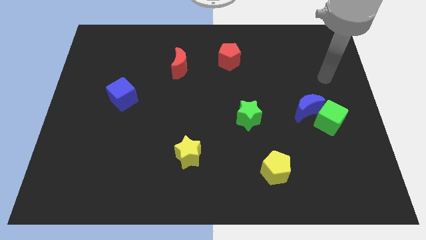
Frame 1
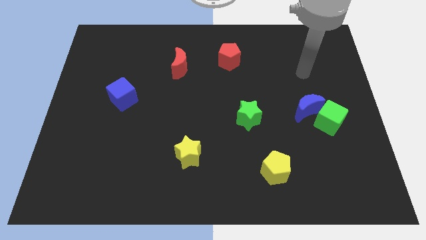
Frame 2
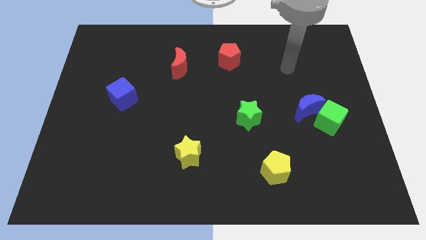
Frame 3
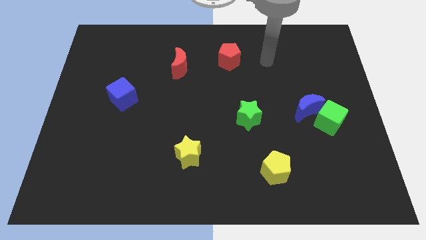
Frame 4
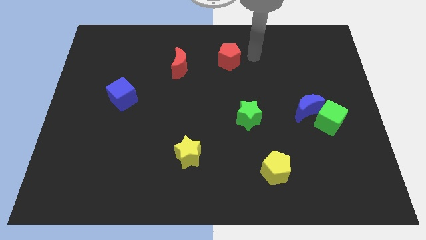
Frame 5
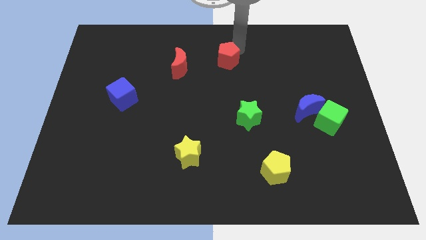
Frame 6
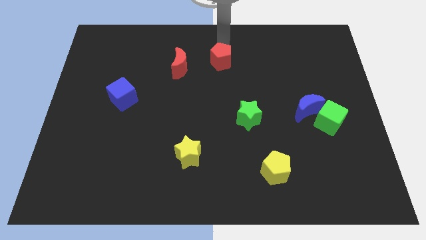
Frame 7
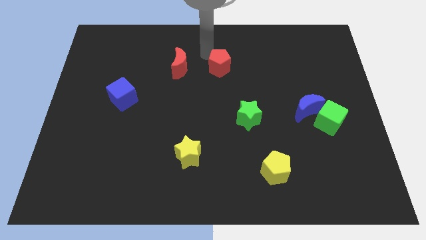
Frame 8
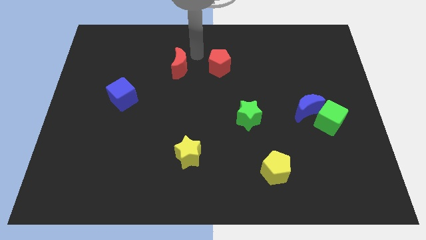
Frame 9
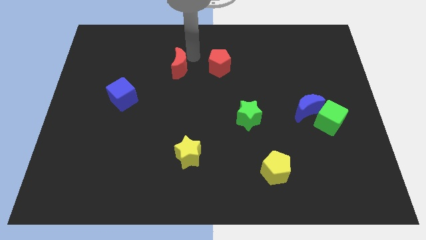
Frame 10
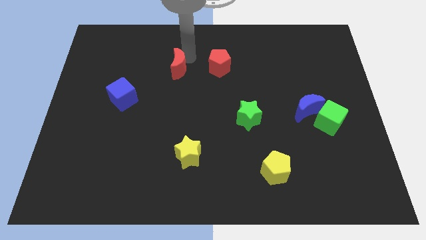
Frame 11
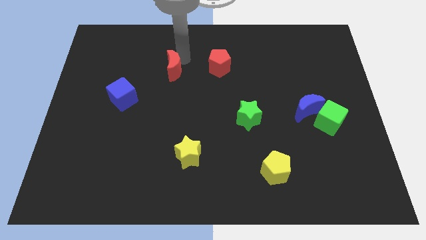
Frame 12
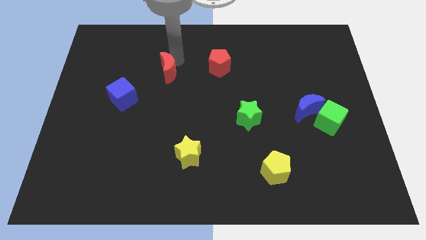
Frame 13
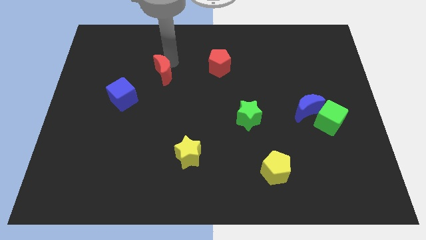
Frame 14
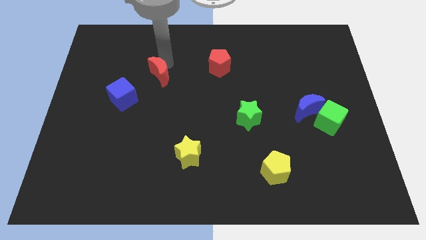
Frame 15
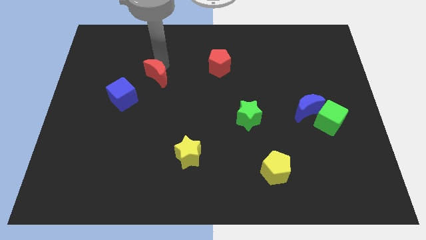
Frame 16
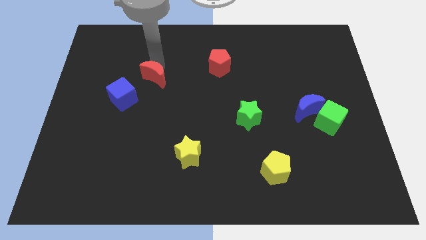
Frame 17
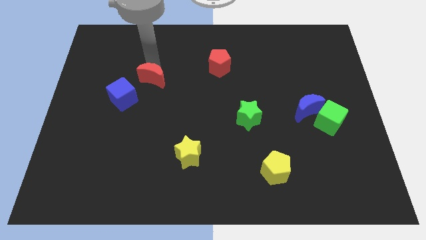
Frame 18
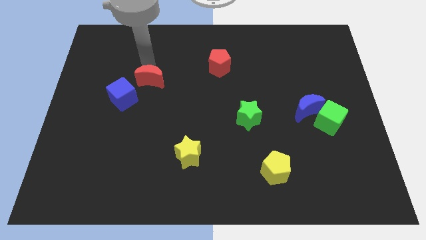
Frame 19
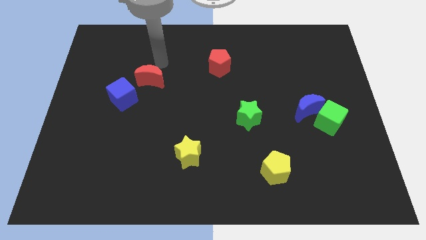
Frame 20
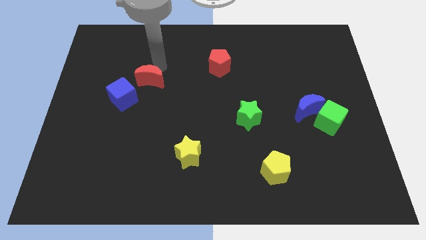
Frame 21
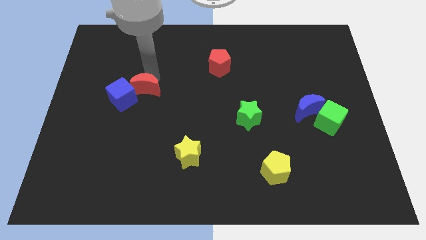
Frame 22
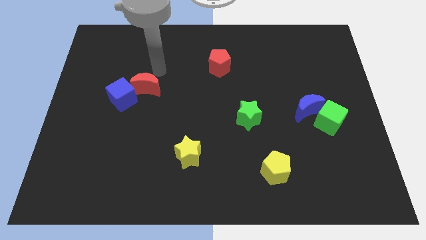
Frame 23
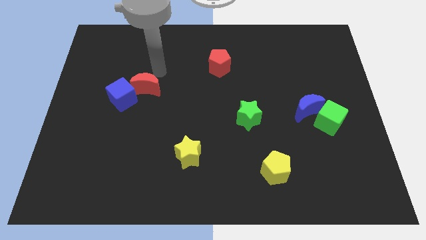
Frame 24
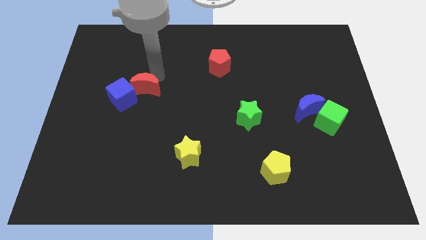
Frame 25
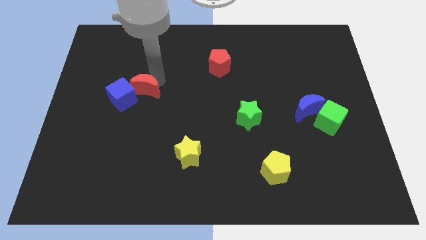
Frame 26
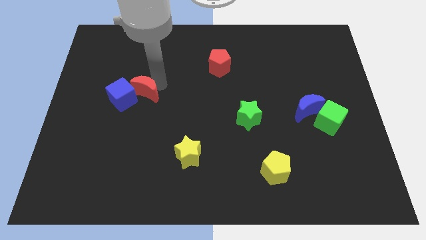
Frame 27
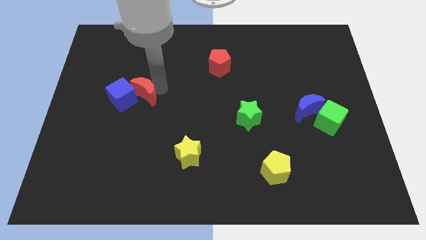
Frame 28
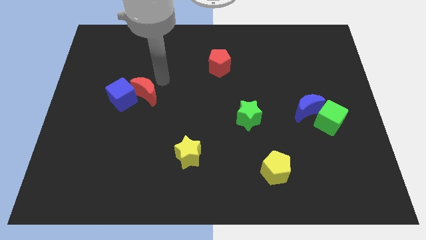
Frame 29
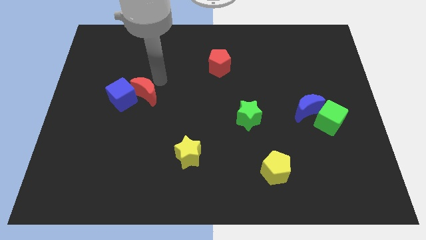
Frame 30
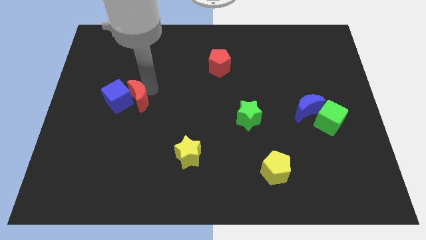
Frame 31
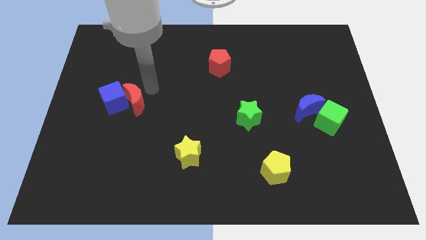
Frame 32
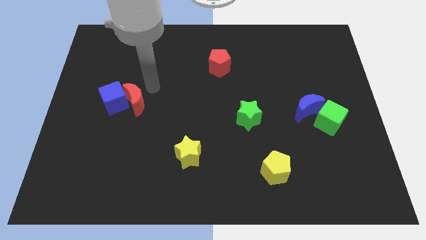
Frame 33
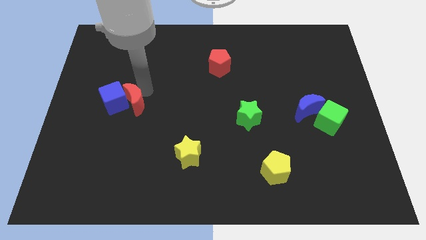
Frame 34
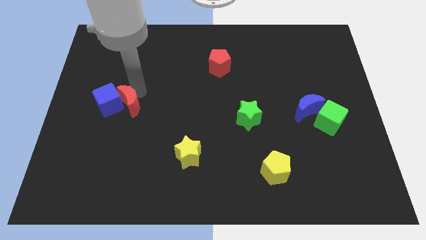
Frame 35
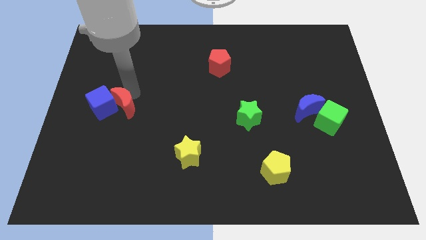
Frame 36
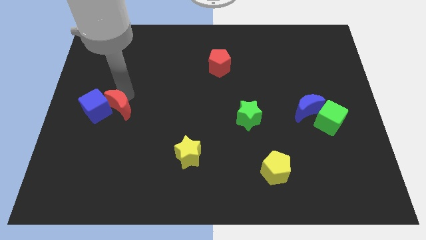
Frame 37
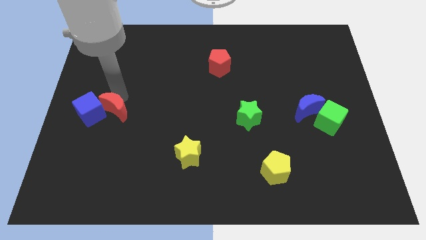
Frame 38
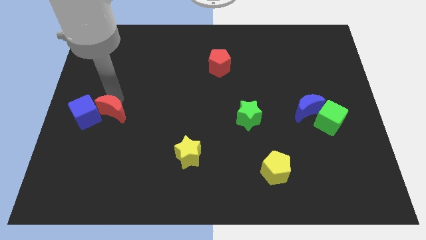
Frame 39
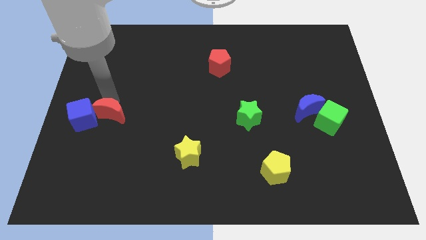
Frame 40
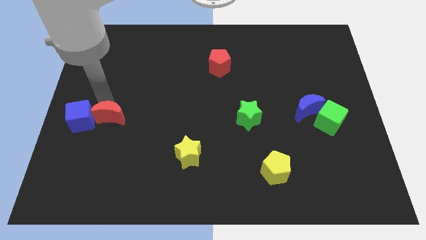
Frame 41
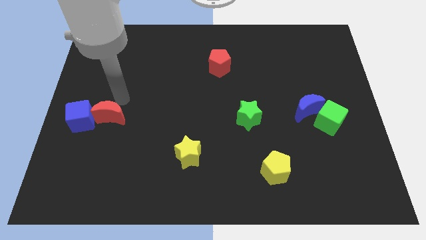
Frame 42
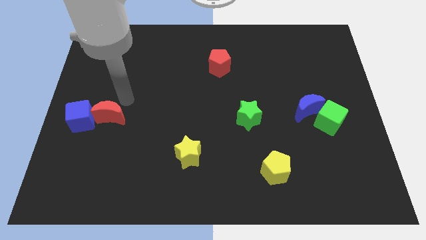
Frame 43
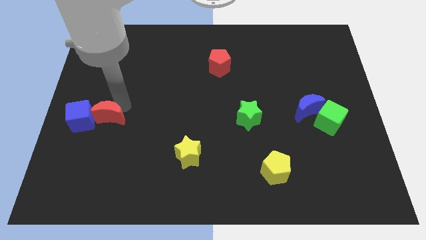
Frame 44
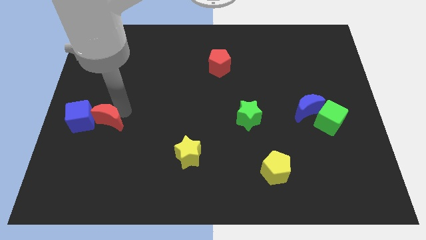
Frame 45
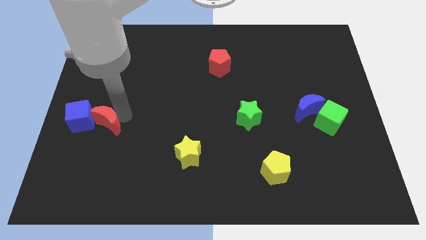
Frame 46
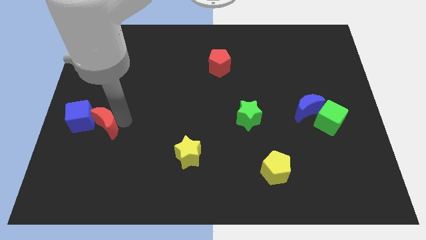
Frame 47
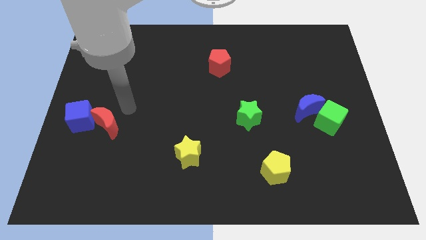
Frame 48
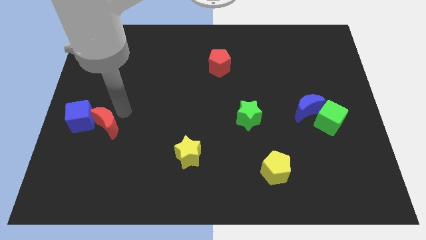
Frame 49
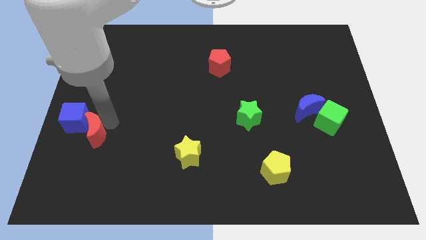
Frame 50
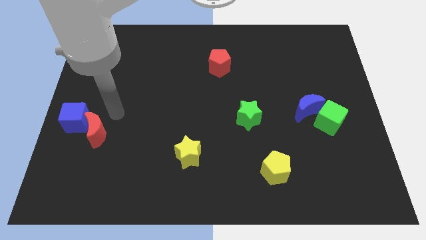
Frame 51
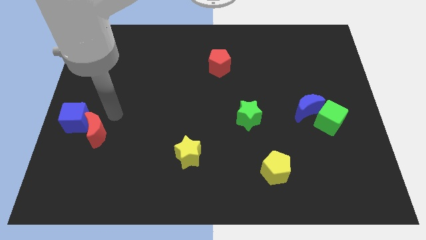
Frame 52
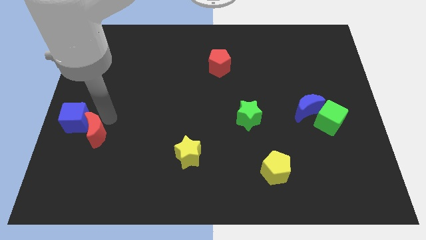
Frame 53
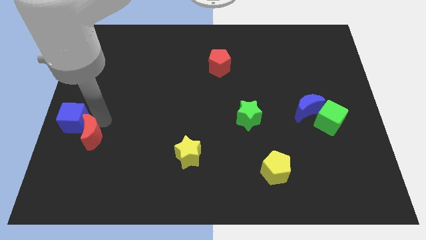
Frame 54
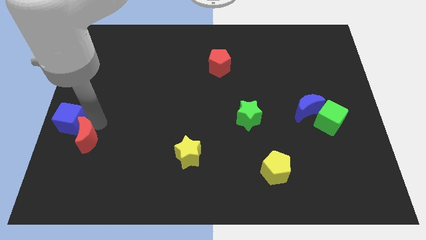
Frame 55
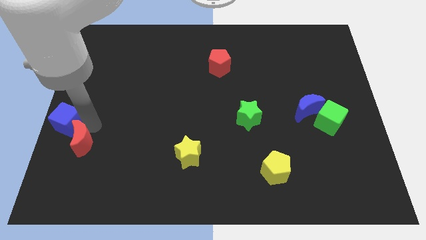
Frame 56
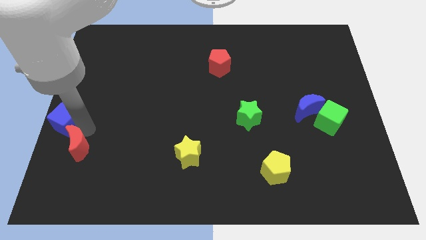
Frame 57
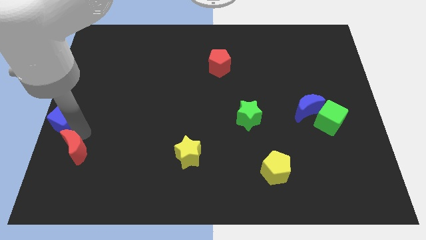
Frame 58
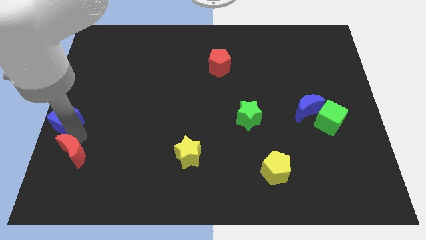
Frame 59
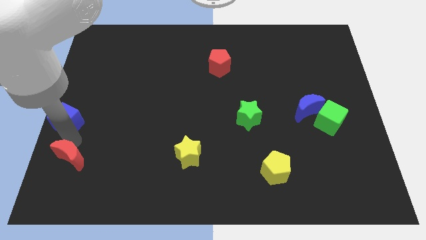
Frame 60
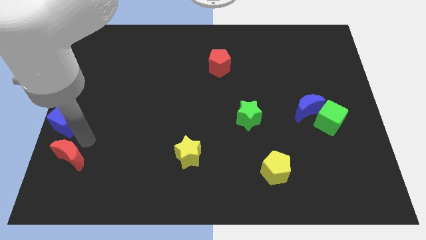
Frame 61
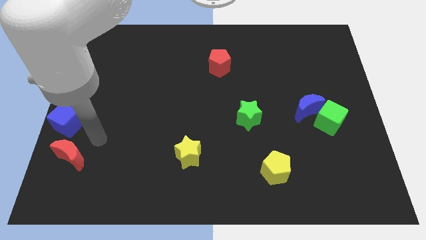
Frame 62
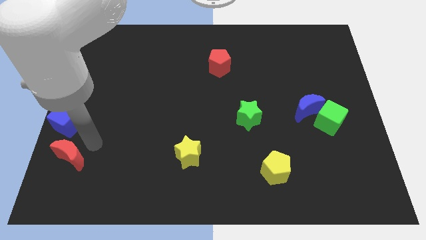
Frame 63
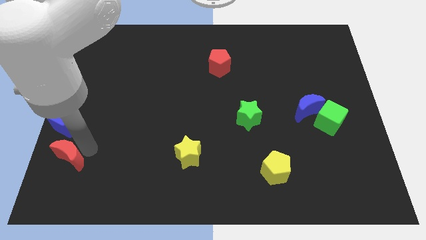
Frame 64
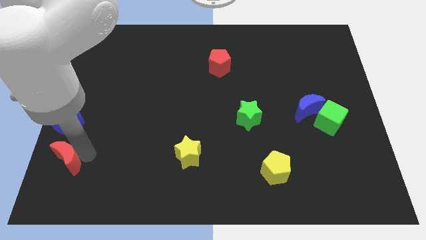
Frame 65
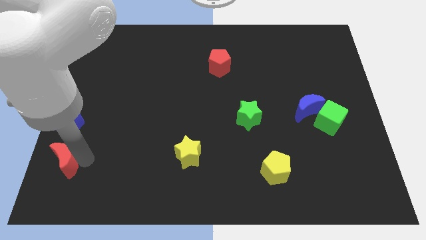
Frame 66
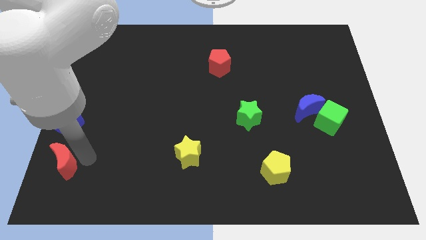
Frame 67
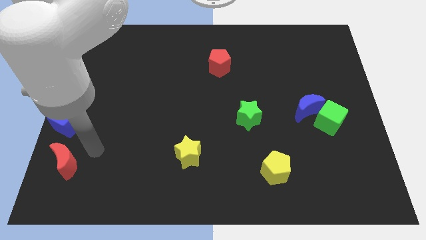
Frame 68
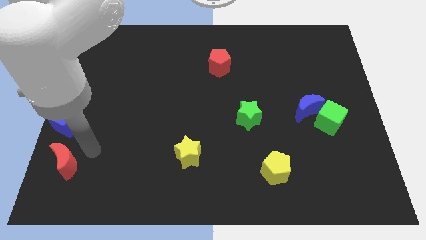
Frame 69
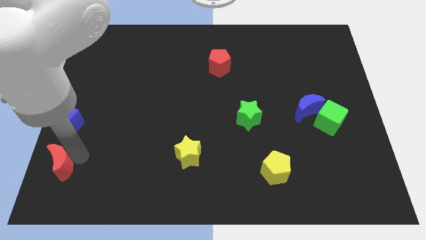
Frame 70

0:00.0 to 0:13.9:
push the red moon to the lower left corner

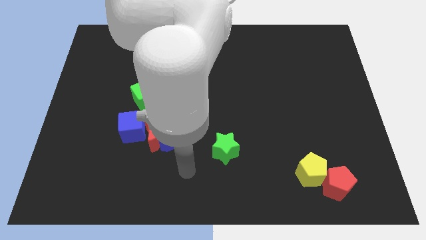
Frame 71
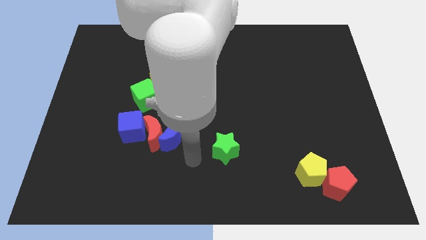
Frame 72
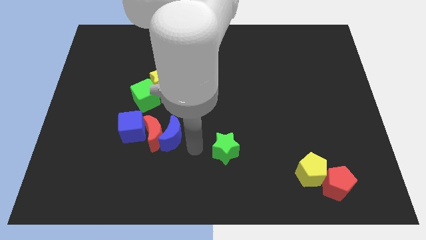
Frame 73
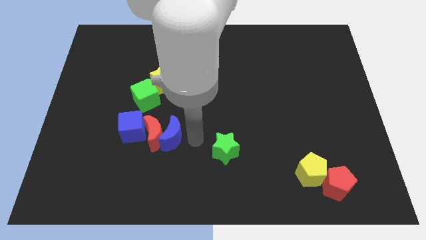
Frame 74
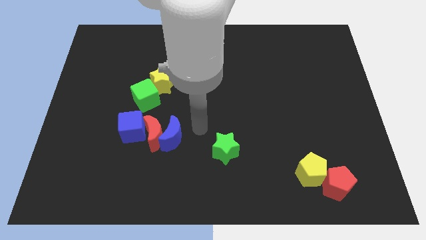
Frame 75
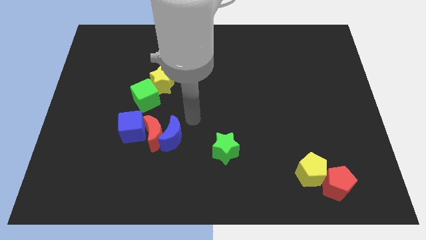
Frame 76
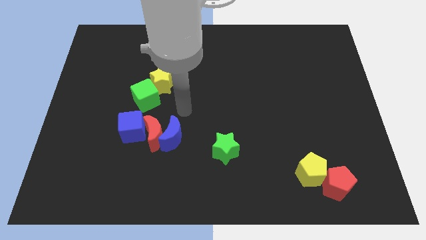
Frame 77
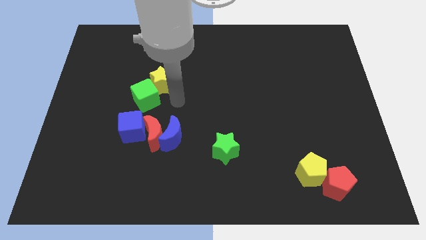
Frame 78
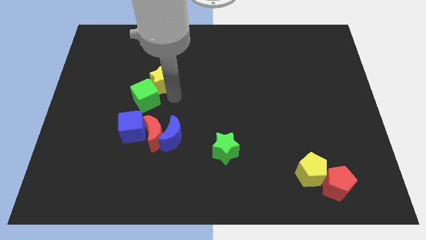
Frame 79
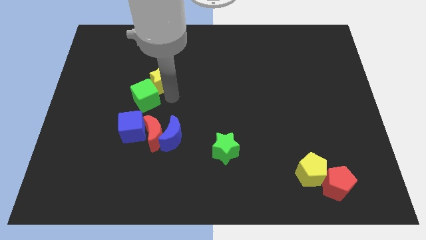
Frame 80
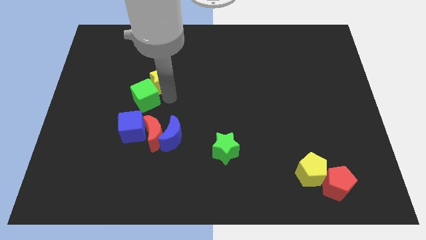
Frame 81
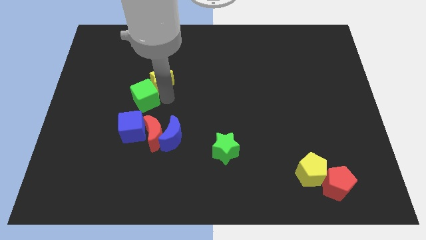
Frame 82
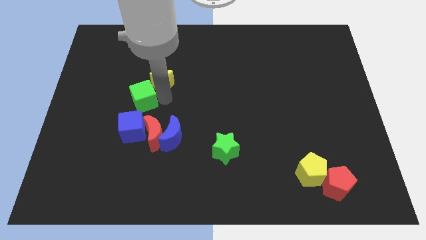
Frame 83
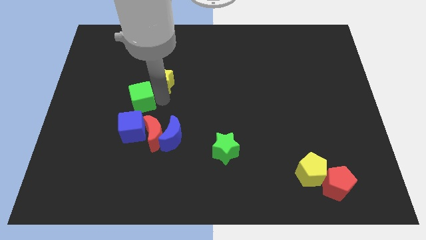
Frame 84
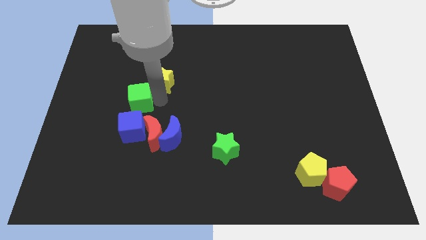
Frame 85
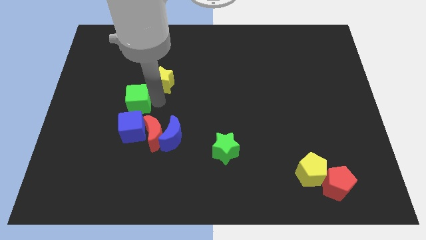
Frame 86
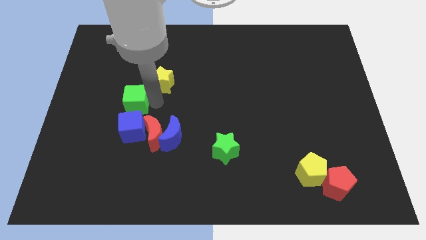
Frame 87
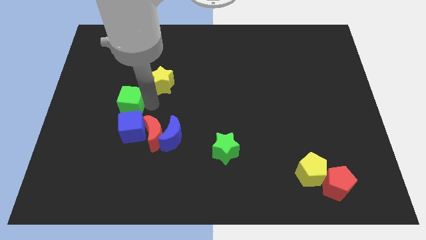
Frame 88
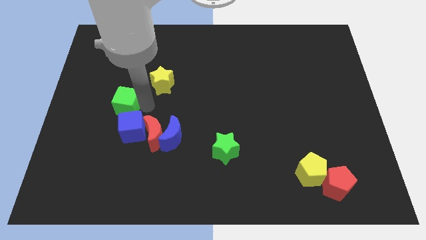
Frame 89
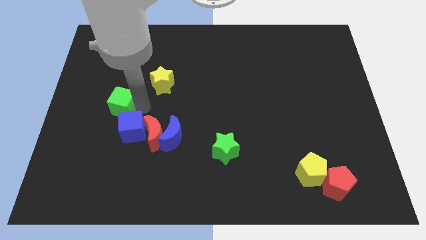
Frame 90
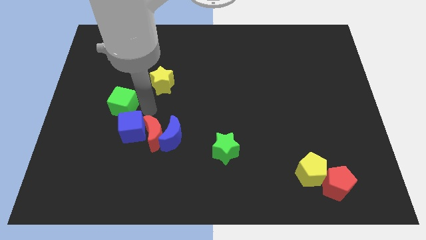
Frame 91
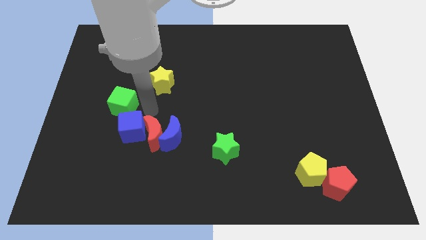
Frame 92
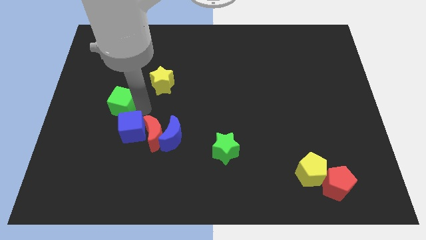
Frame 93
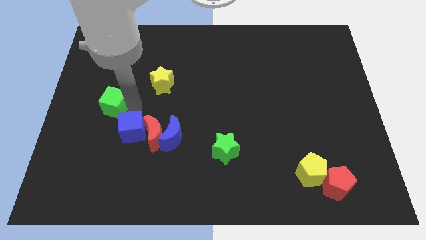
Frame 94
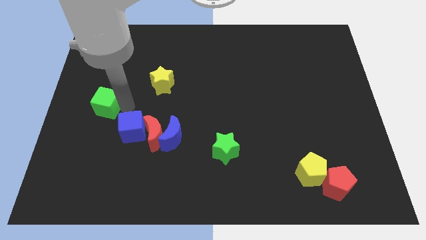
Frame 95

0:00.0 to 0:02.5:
push the green cube to the left side of the board
